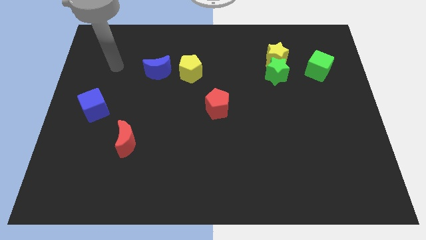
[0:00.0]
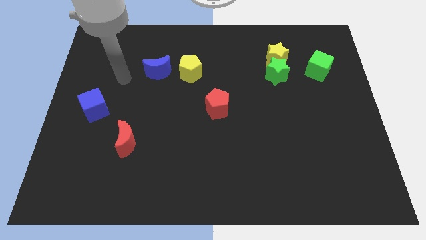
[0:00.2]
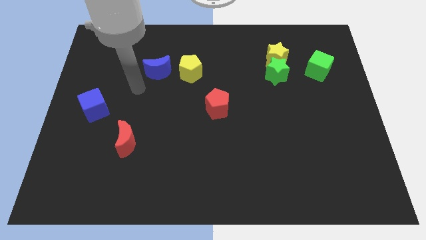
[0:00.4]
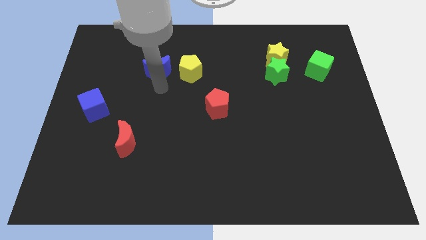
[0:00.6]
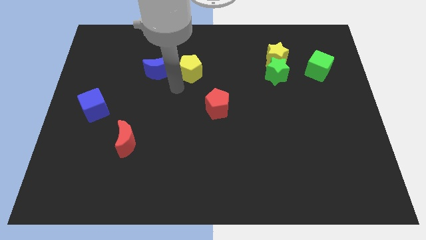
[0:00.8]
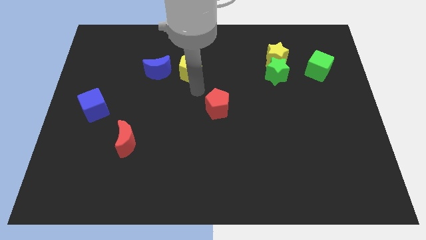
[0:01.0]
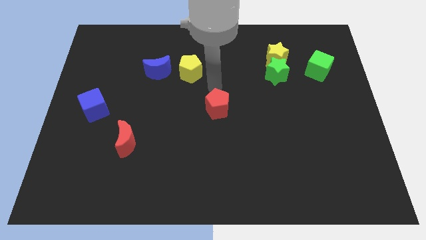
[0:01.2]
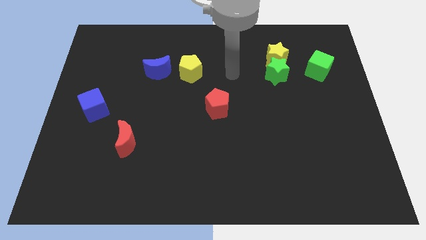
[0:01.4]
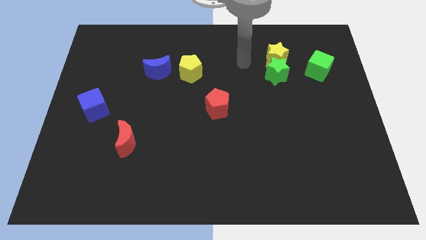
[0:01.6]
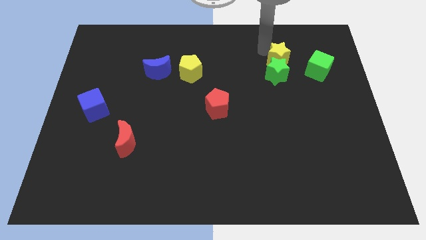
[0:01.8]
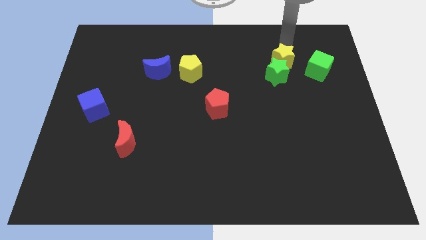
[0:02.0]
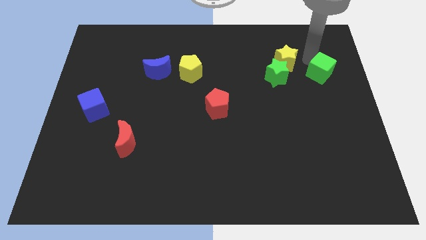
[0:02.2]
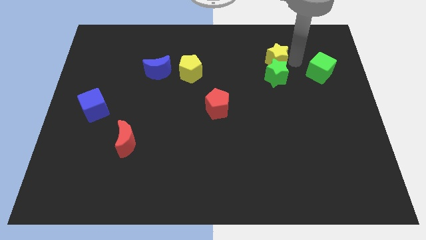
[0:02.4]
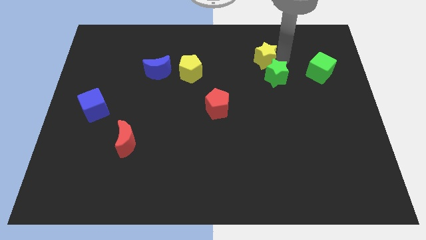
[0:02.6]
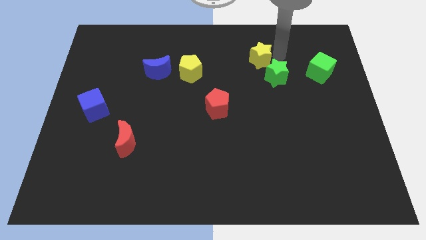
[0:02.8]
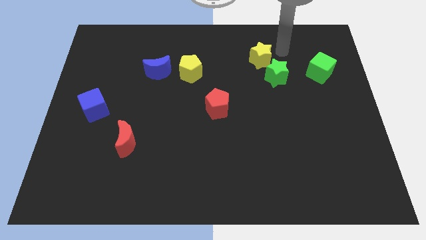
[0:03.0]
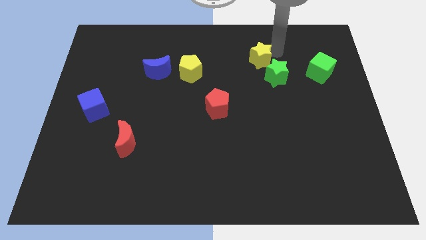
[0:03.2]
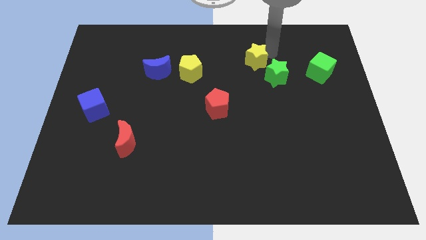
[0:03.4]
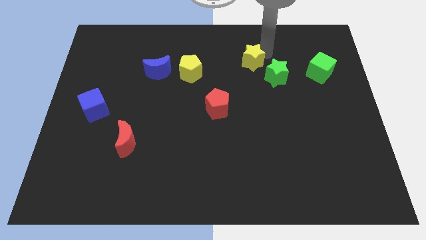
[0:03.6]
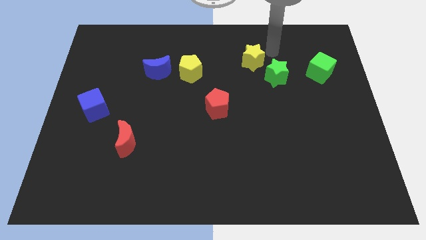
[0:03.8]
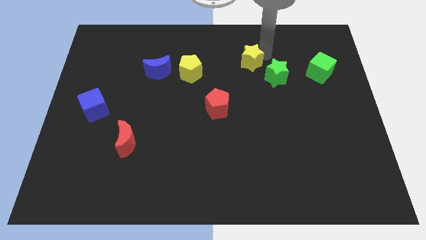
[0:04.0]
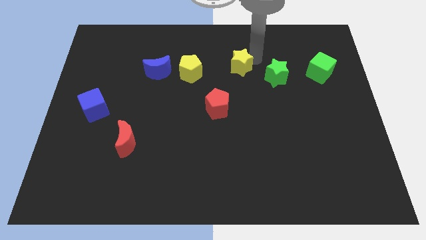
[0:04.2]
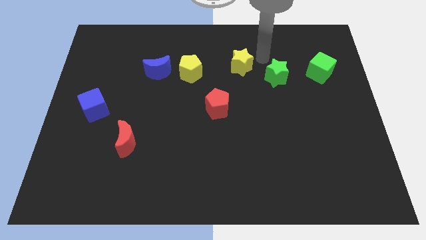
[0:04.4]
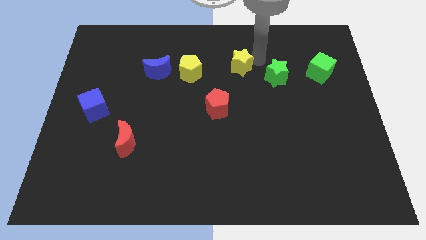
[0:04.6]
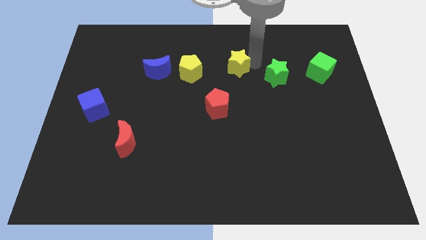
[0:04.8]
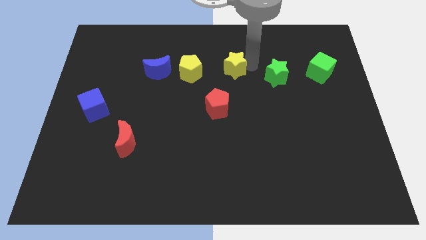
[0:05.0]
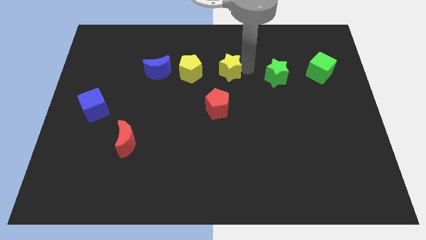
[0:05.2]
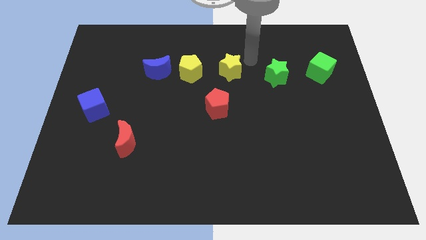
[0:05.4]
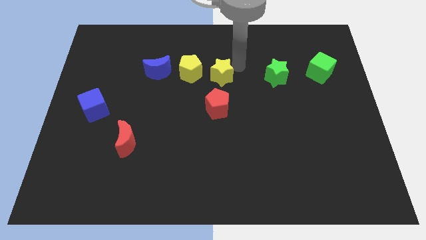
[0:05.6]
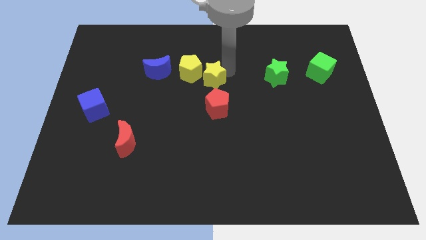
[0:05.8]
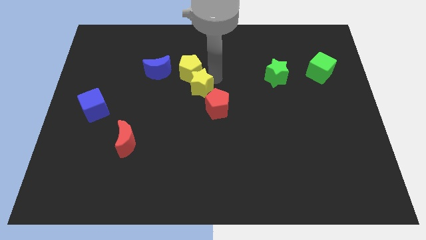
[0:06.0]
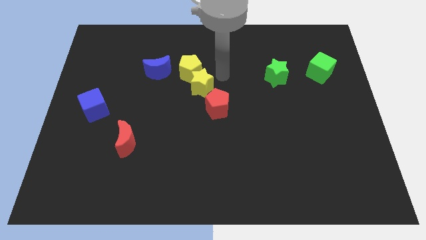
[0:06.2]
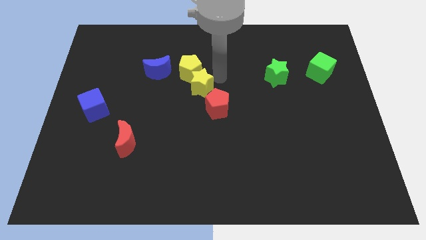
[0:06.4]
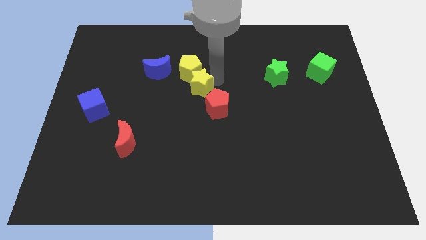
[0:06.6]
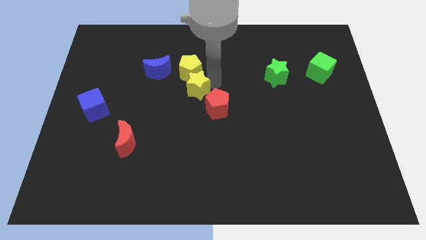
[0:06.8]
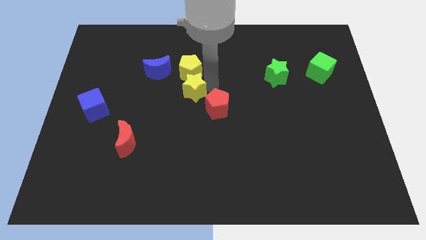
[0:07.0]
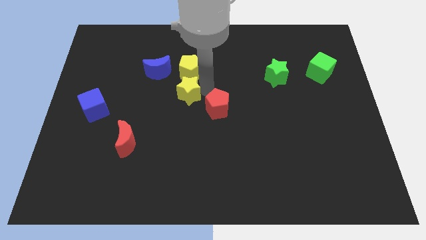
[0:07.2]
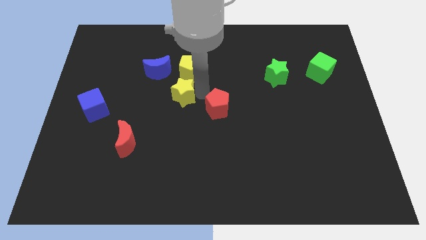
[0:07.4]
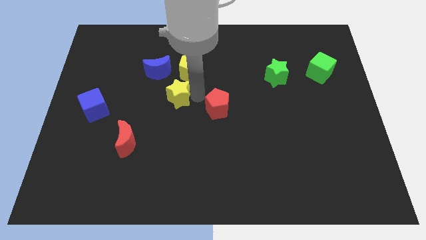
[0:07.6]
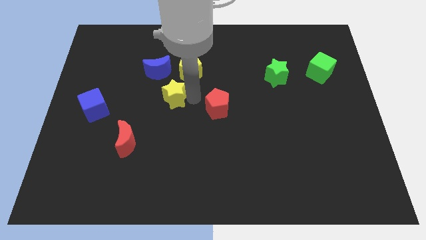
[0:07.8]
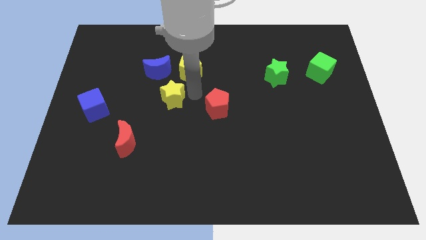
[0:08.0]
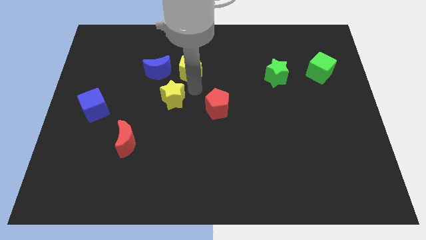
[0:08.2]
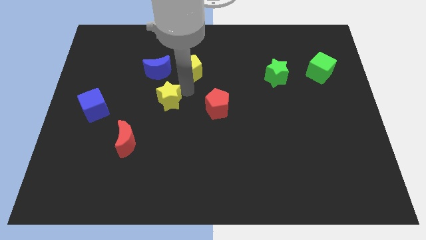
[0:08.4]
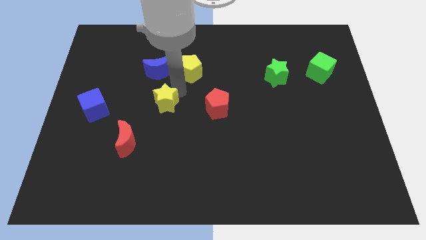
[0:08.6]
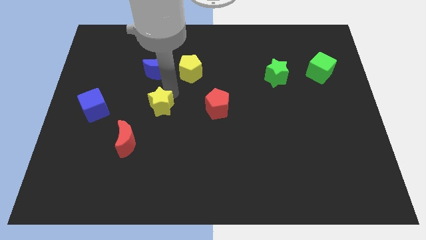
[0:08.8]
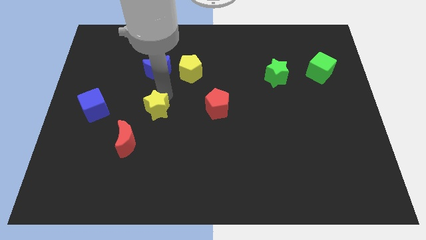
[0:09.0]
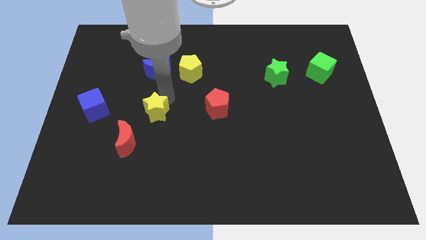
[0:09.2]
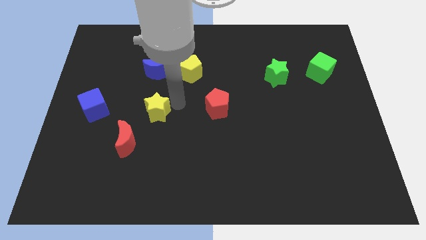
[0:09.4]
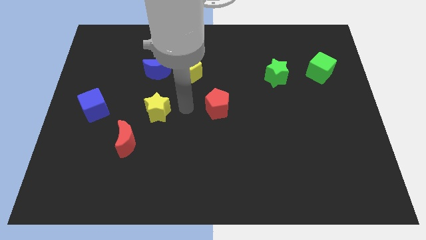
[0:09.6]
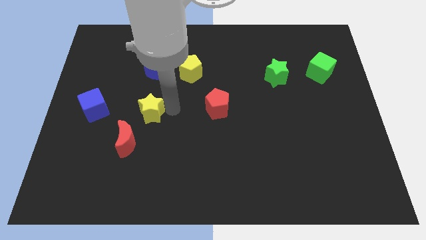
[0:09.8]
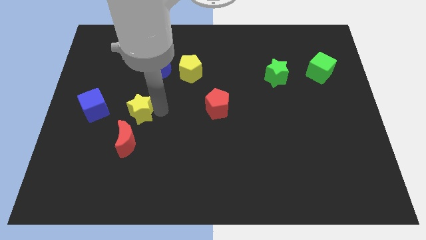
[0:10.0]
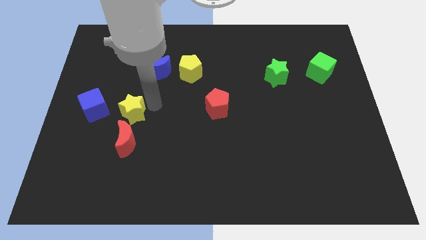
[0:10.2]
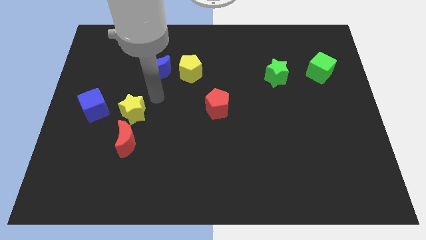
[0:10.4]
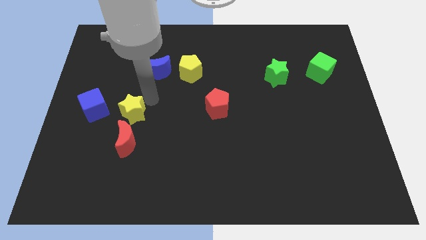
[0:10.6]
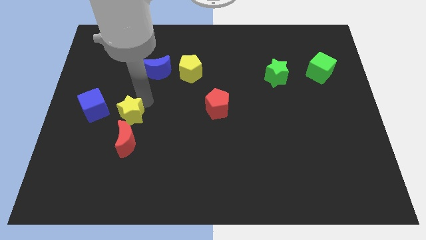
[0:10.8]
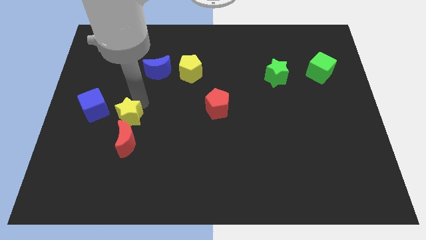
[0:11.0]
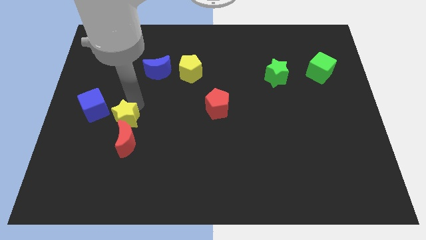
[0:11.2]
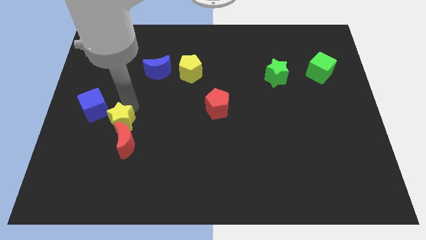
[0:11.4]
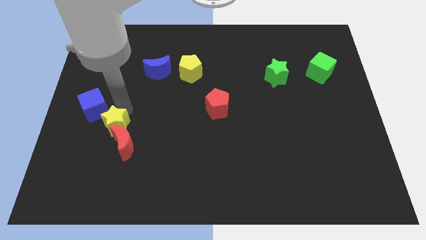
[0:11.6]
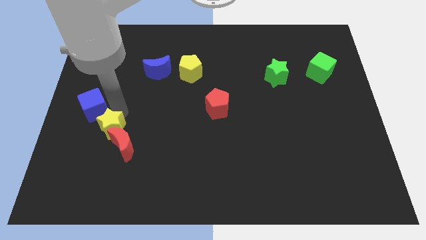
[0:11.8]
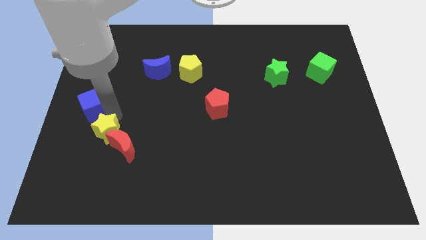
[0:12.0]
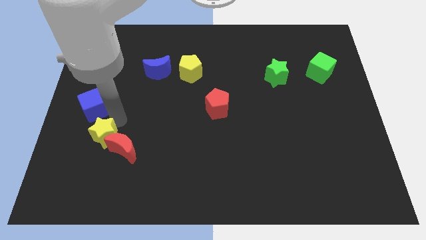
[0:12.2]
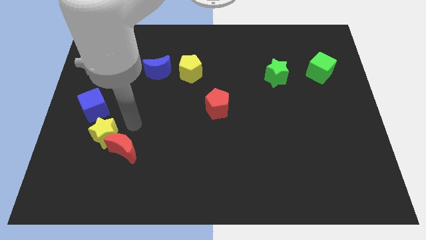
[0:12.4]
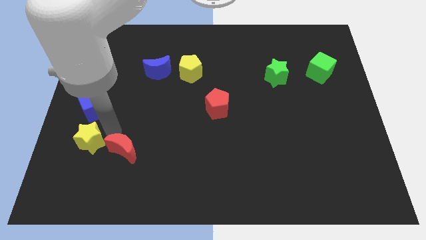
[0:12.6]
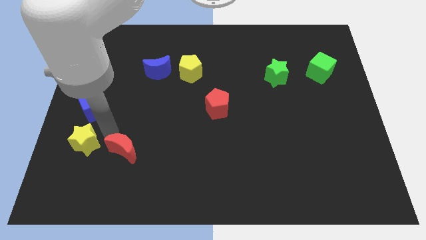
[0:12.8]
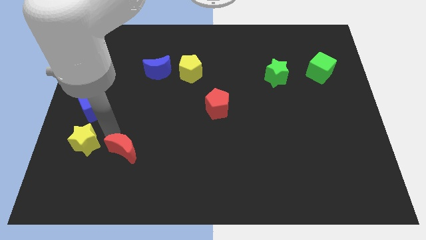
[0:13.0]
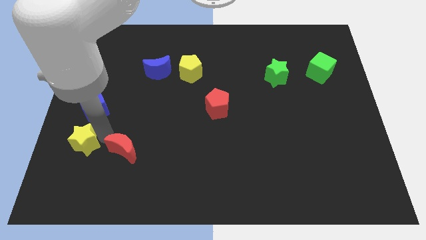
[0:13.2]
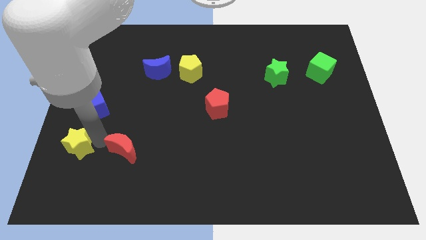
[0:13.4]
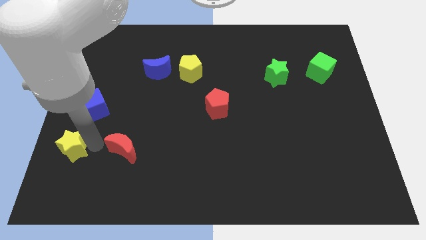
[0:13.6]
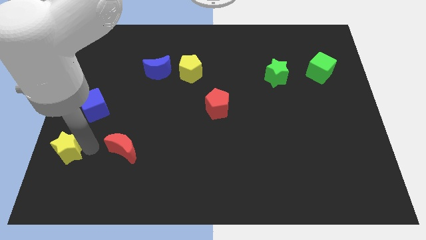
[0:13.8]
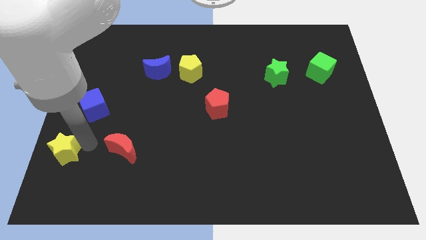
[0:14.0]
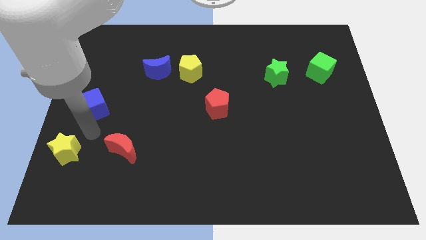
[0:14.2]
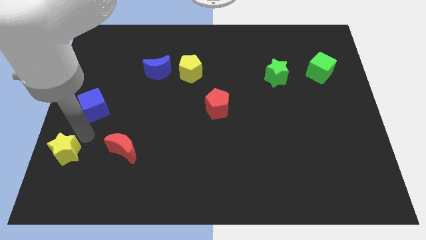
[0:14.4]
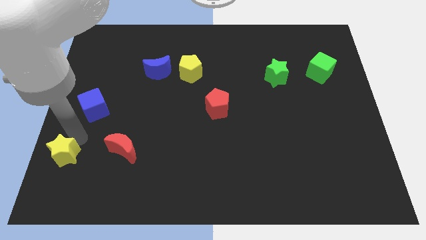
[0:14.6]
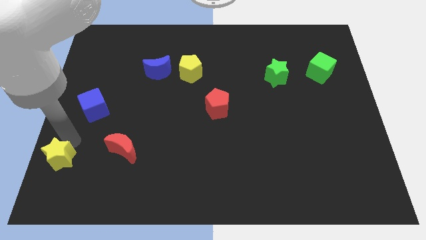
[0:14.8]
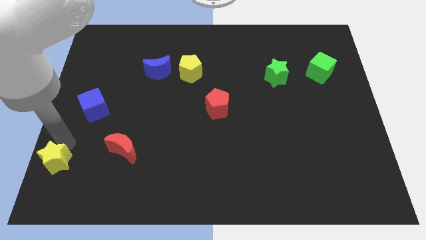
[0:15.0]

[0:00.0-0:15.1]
put the yellow star to the bottom left
